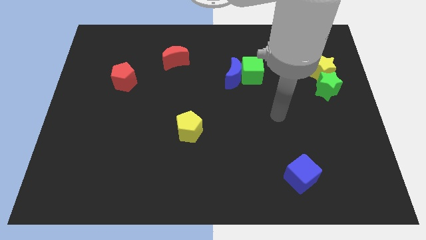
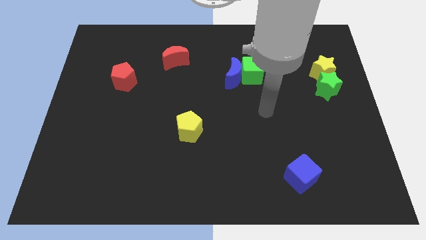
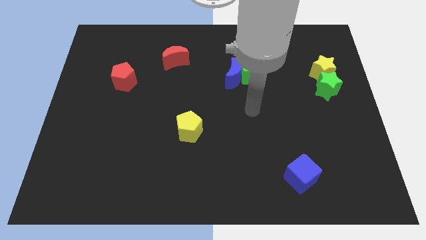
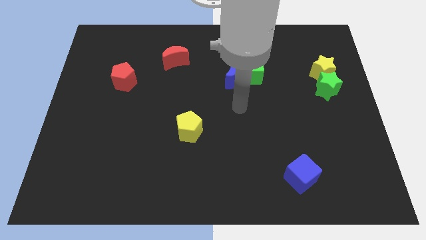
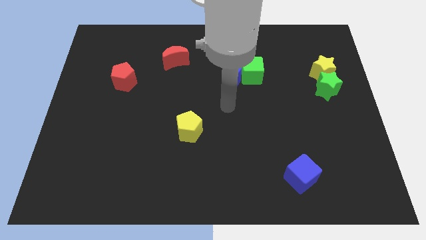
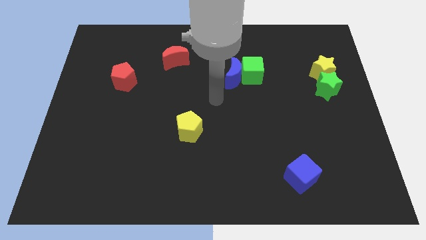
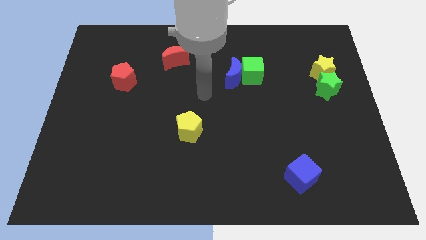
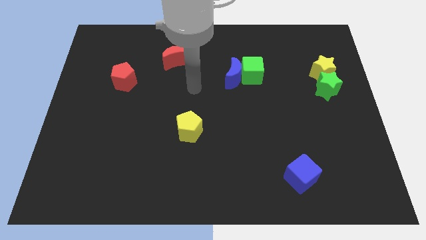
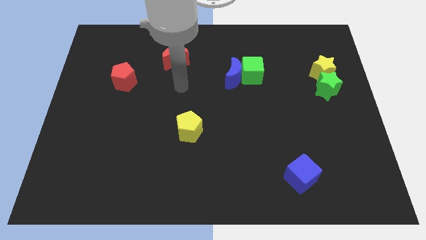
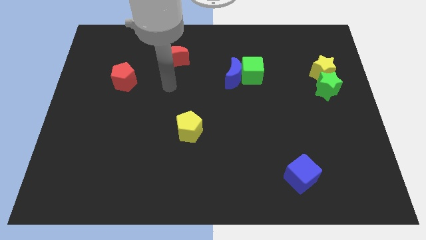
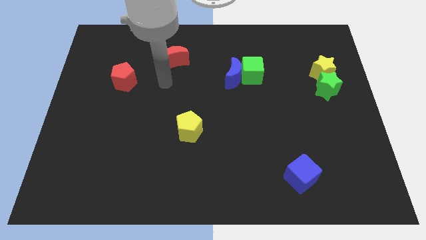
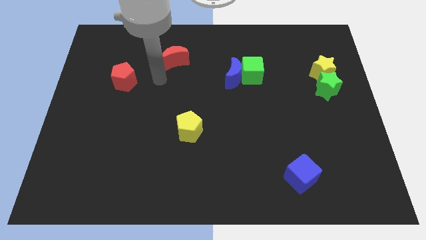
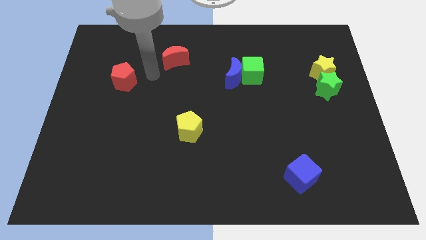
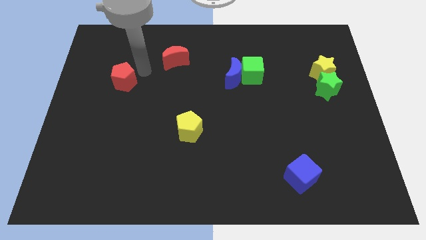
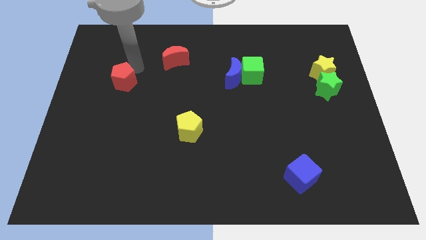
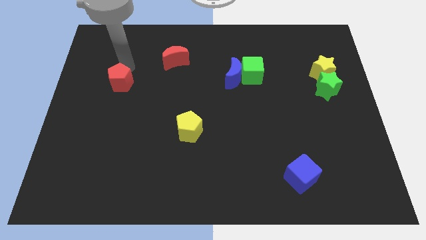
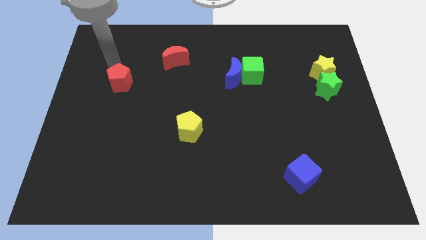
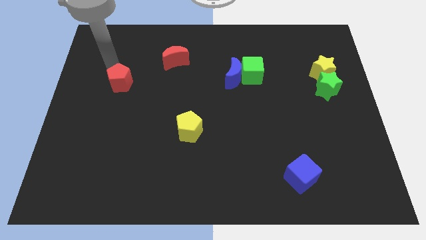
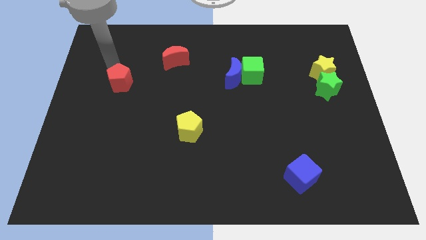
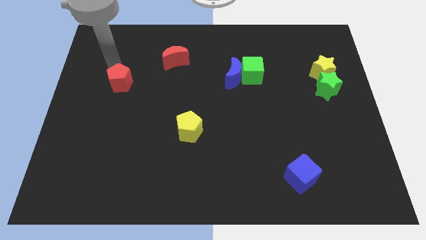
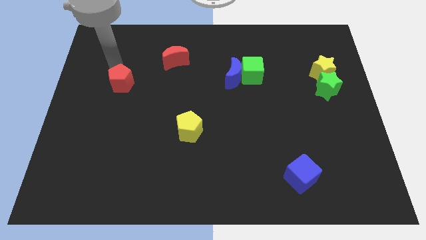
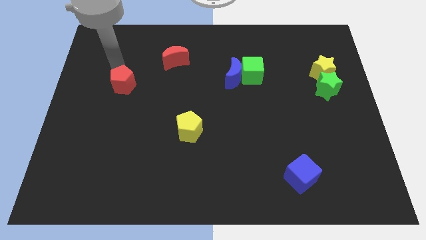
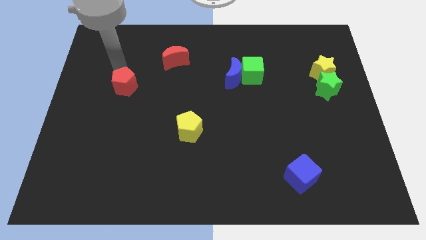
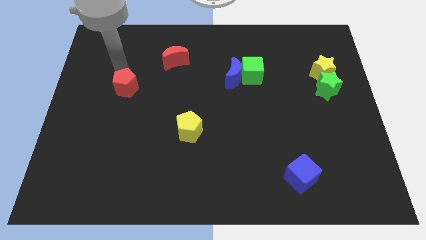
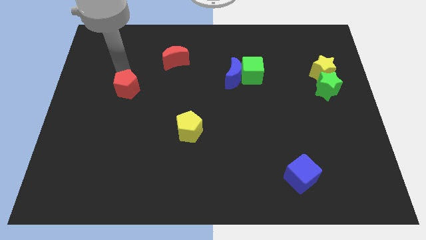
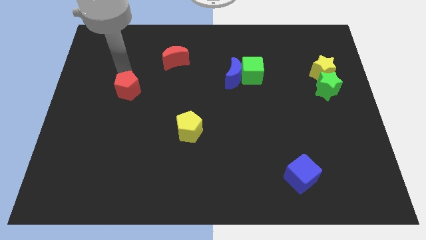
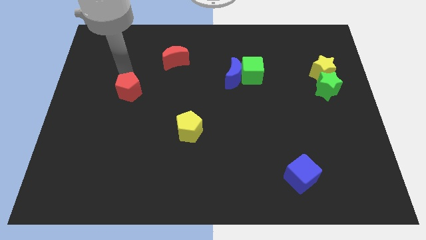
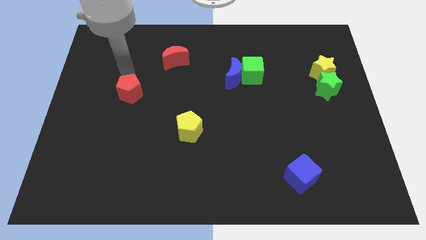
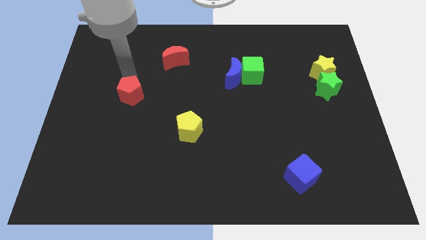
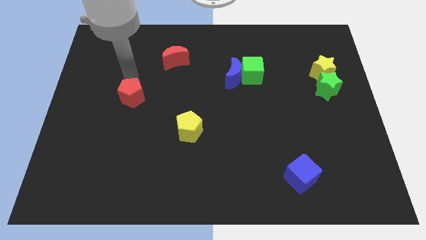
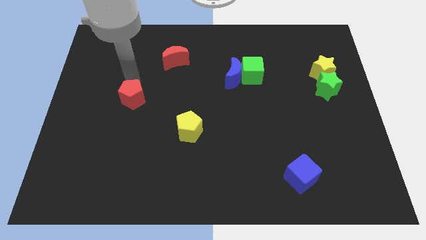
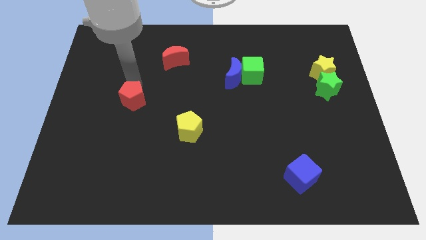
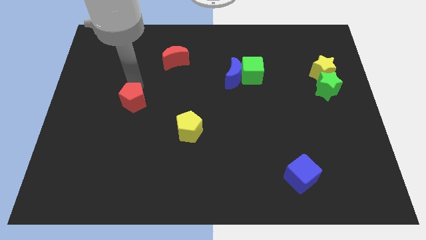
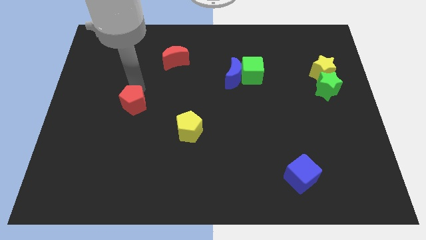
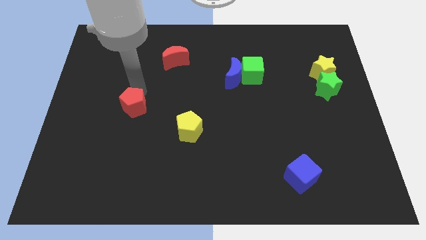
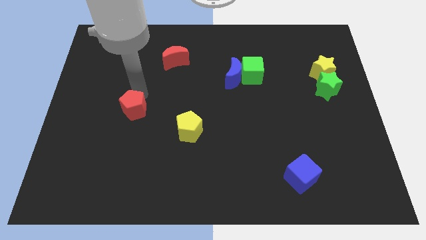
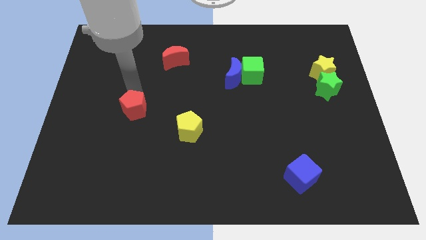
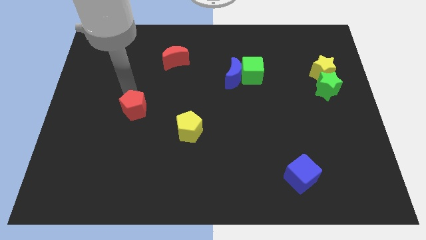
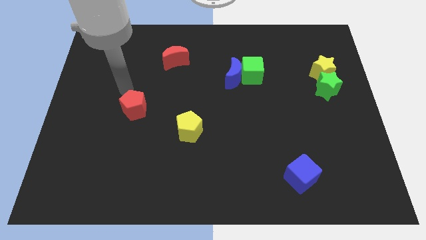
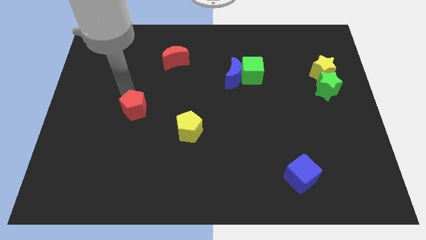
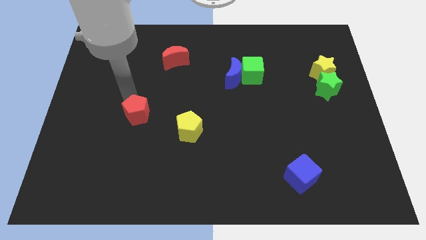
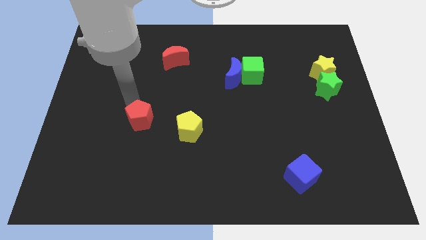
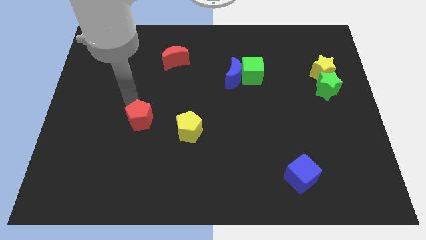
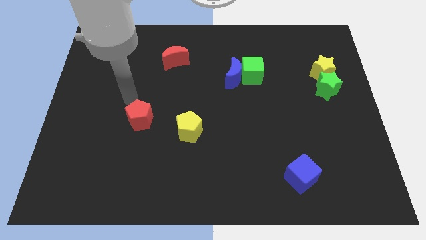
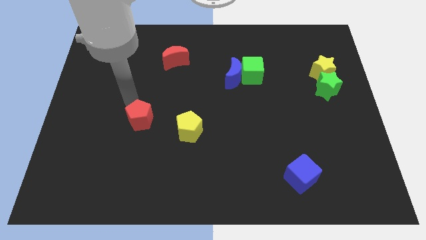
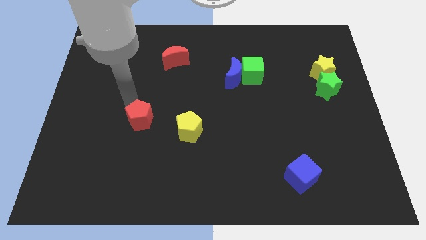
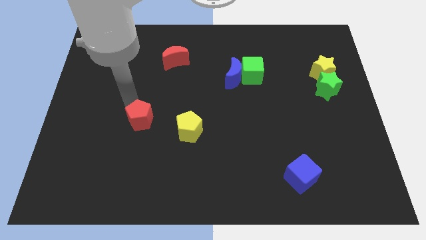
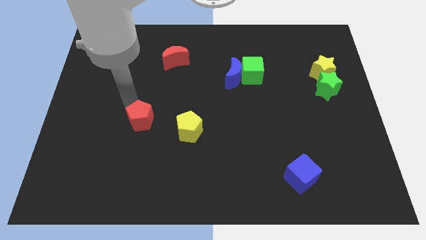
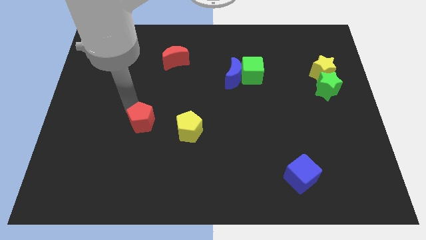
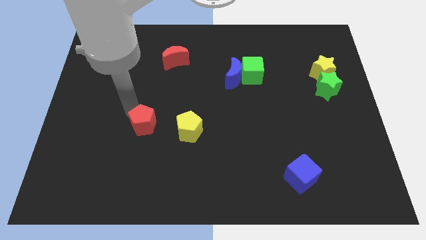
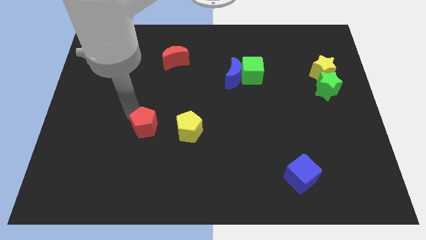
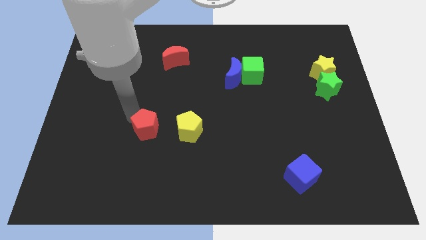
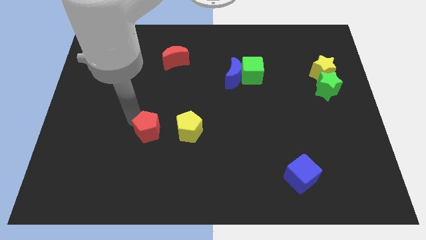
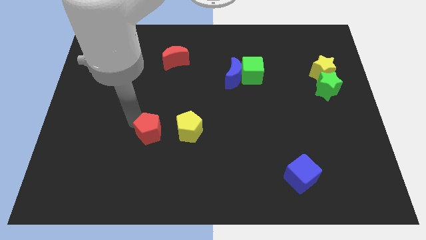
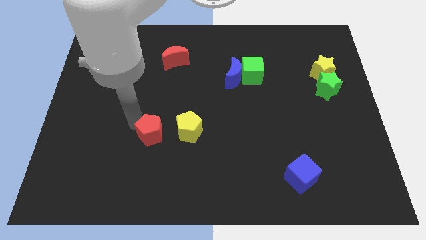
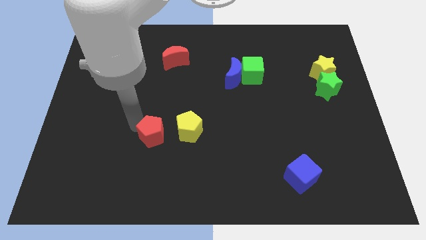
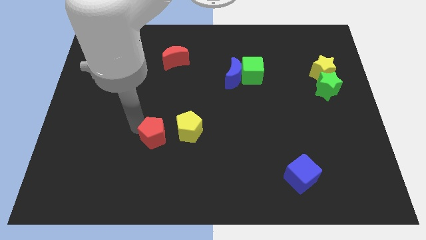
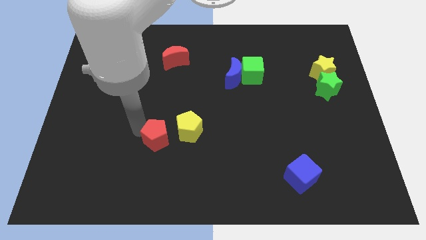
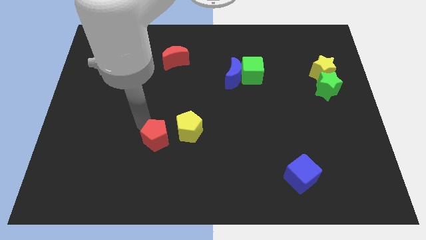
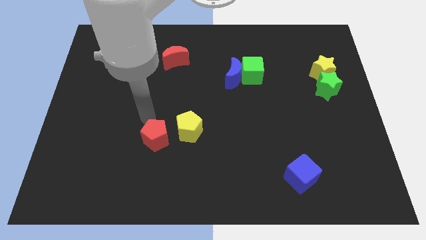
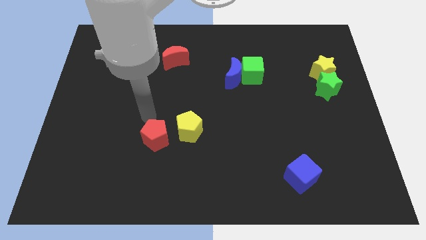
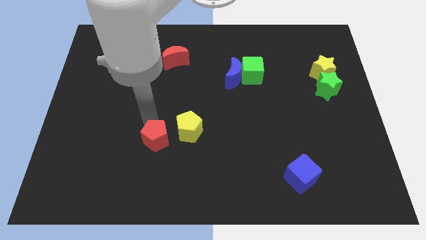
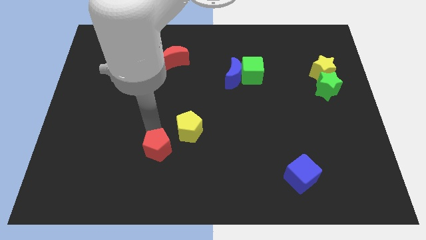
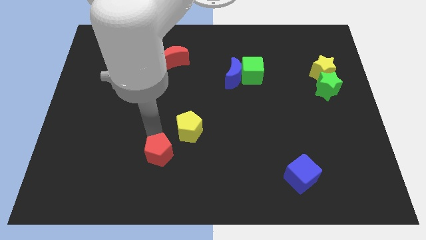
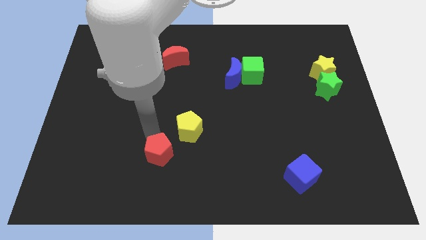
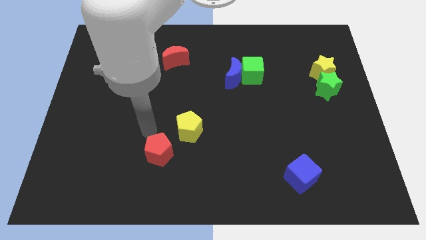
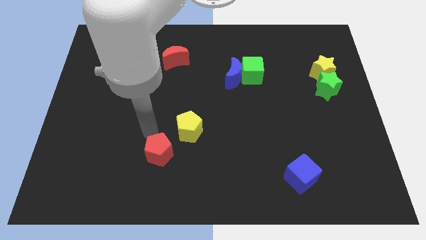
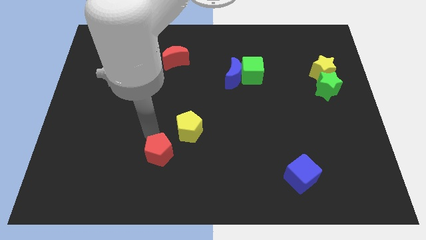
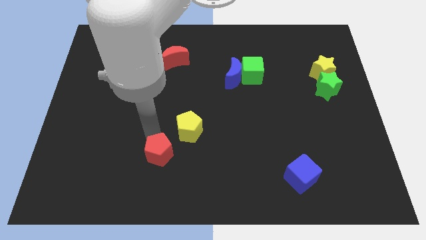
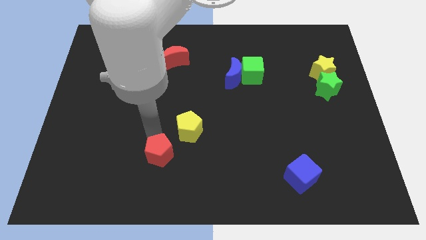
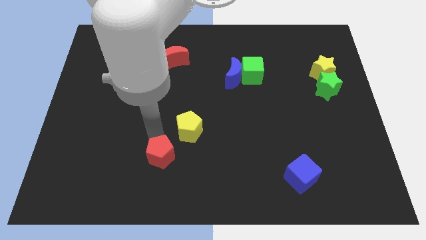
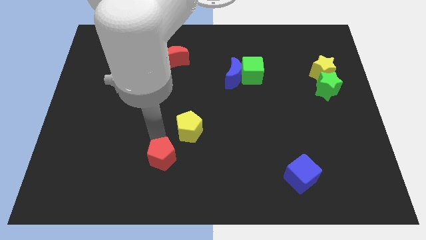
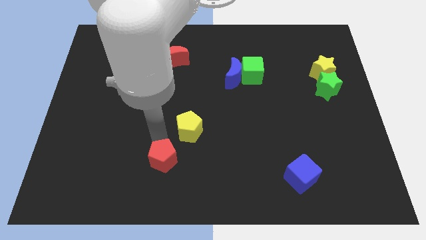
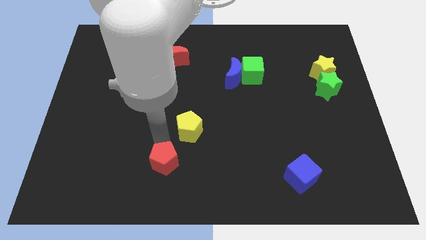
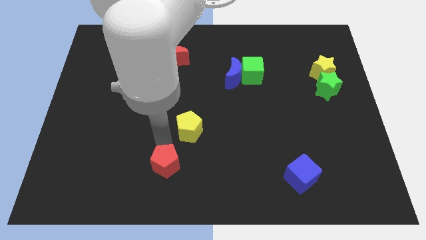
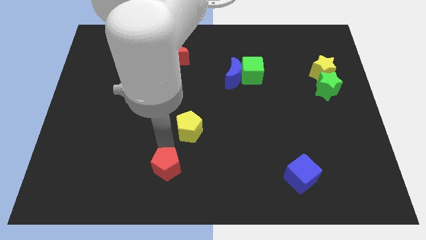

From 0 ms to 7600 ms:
put the red pentagon to the bottom side
